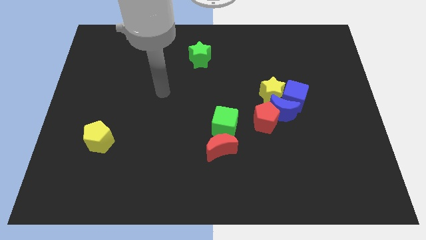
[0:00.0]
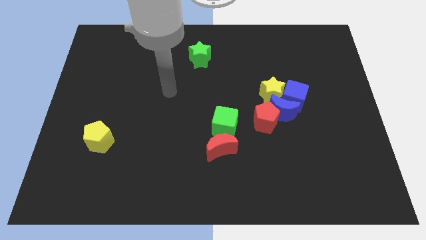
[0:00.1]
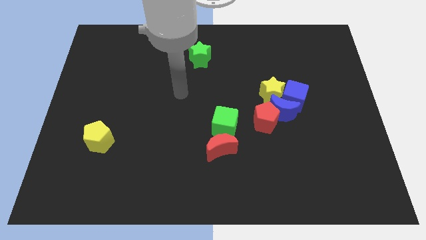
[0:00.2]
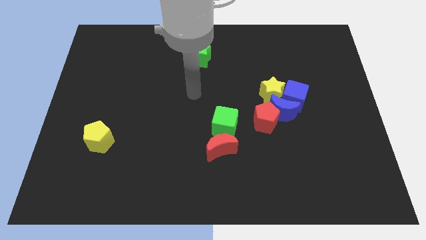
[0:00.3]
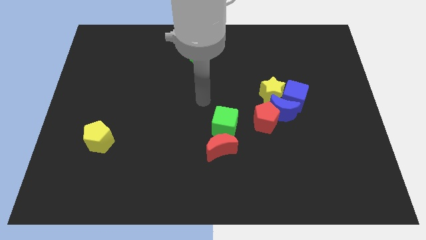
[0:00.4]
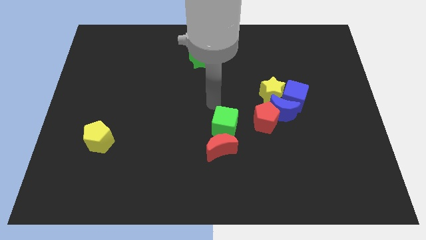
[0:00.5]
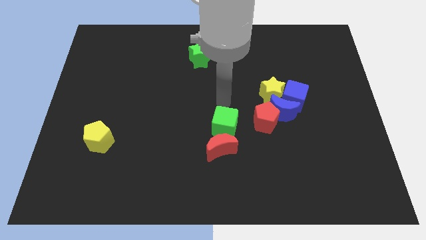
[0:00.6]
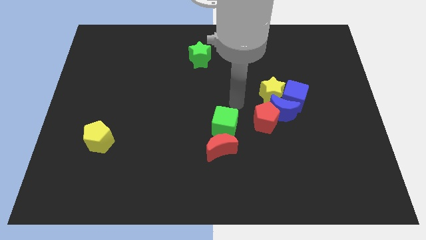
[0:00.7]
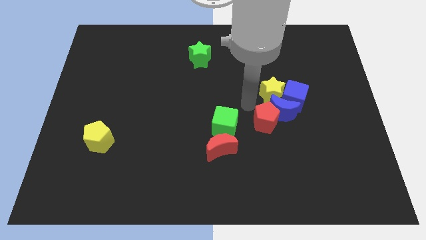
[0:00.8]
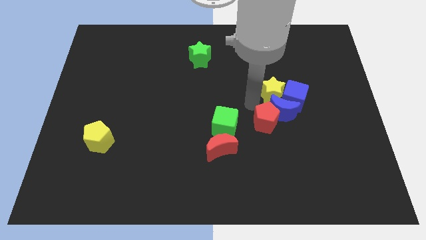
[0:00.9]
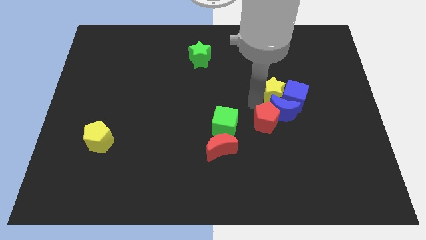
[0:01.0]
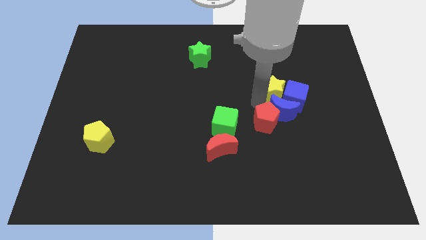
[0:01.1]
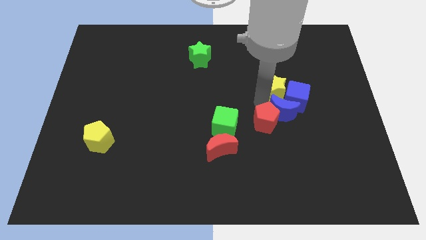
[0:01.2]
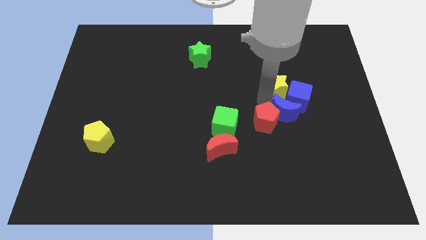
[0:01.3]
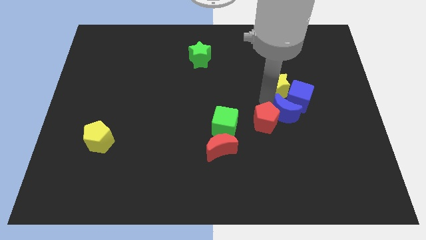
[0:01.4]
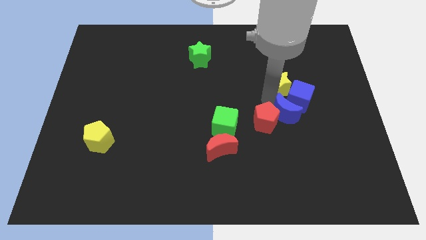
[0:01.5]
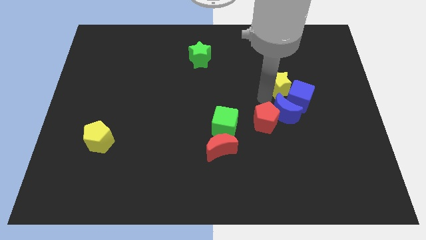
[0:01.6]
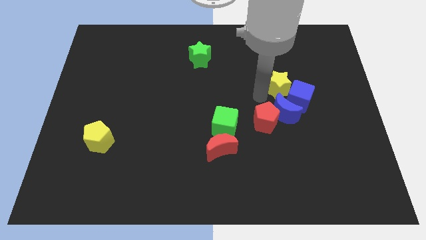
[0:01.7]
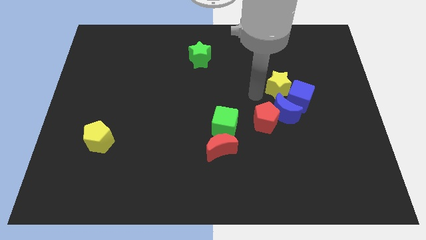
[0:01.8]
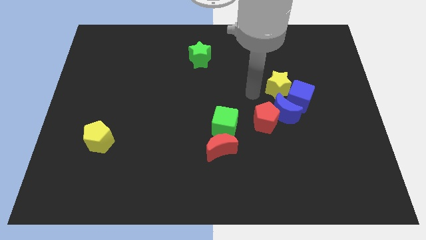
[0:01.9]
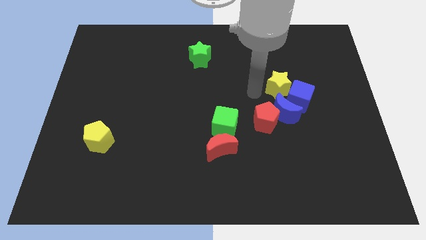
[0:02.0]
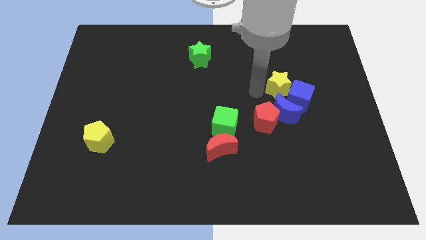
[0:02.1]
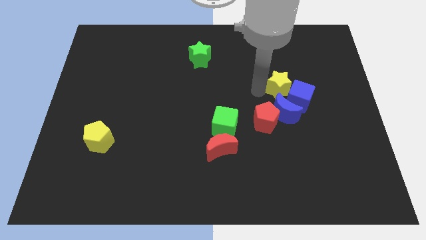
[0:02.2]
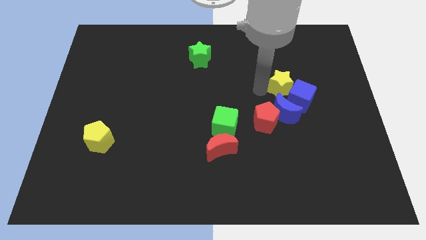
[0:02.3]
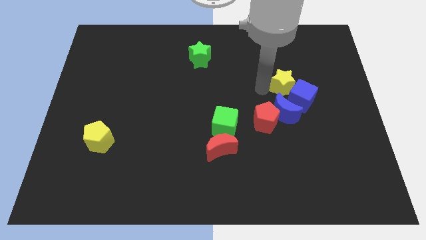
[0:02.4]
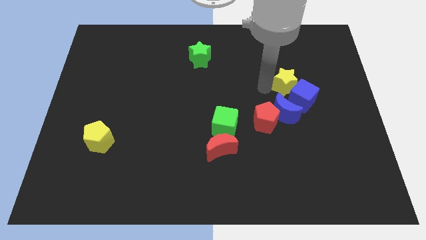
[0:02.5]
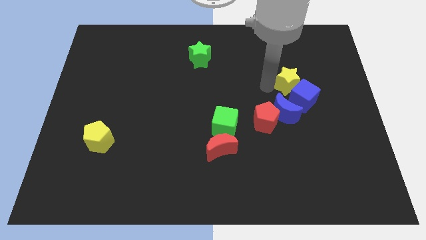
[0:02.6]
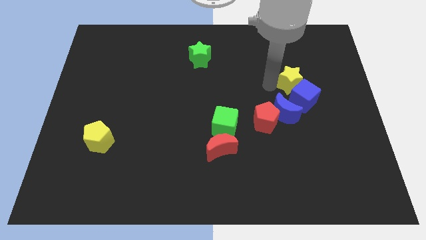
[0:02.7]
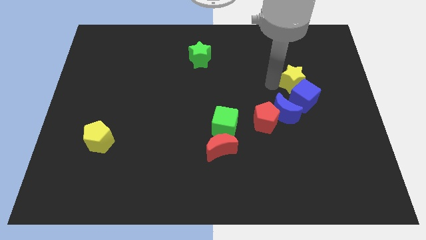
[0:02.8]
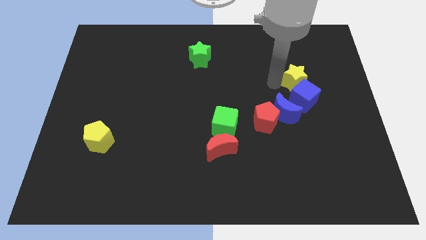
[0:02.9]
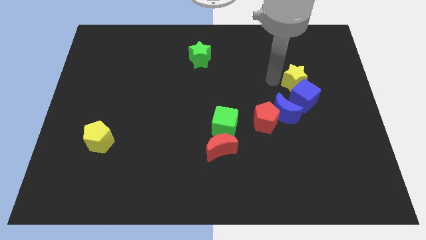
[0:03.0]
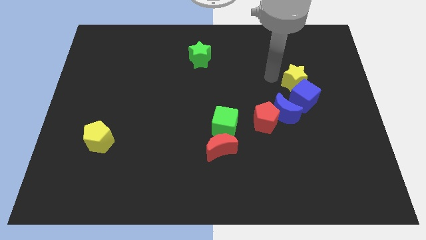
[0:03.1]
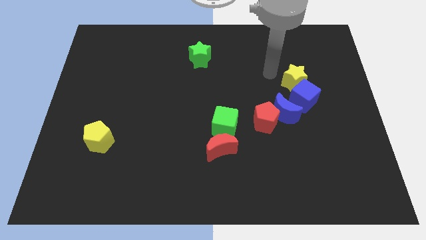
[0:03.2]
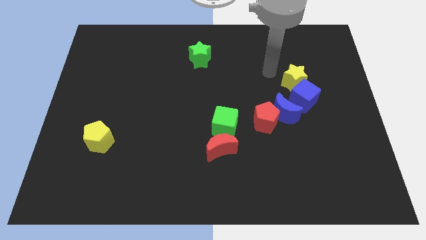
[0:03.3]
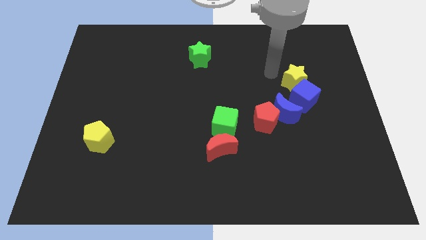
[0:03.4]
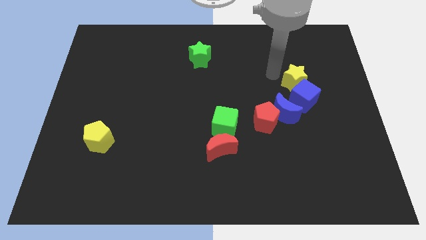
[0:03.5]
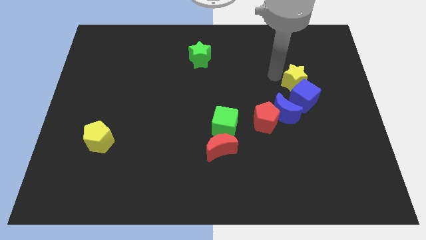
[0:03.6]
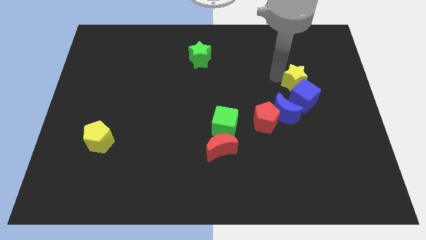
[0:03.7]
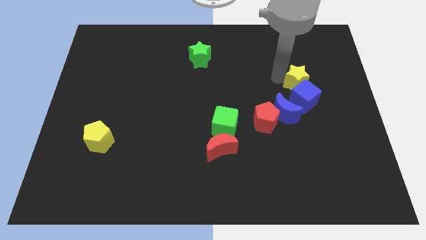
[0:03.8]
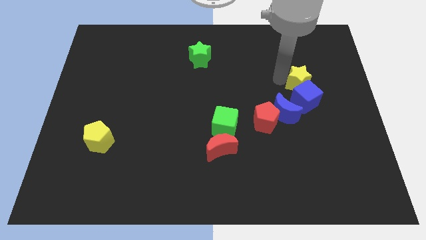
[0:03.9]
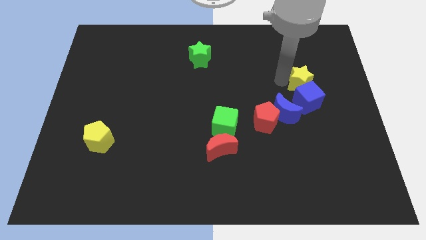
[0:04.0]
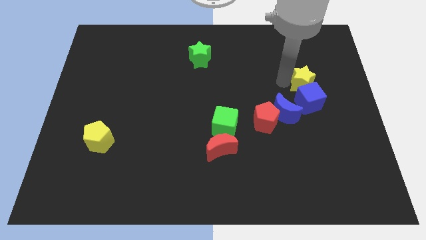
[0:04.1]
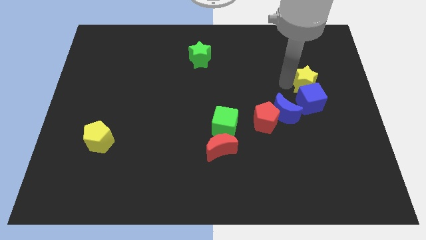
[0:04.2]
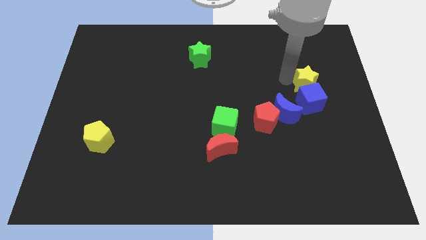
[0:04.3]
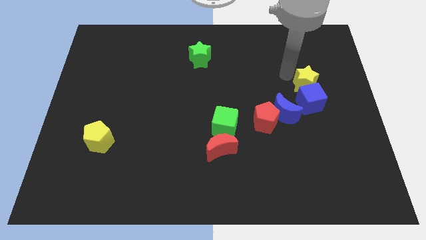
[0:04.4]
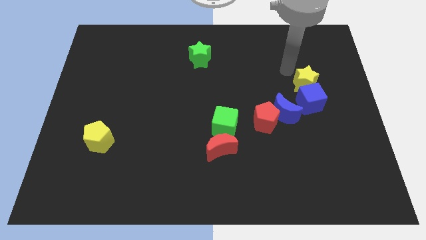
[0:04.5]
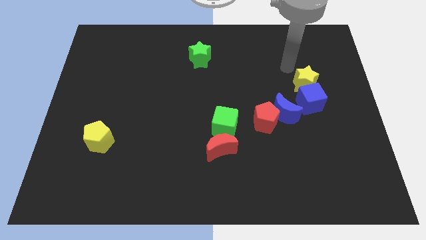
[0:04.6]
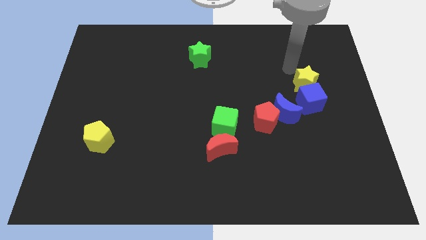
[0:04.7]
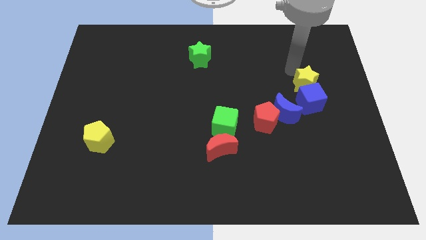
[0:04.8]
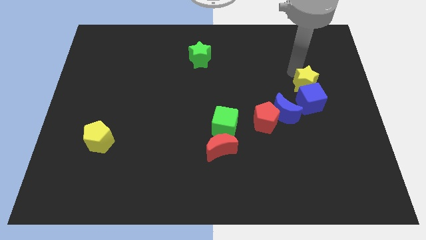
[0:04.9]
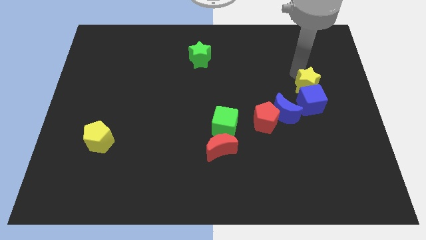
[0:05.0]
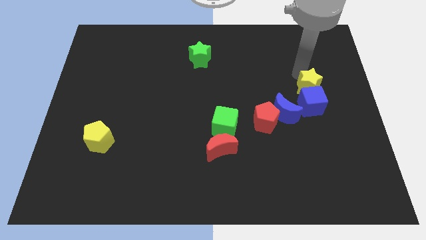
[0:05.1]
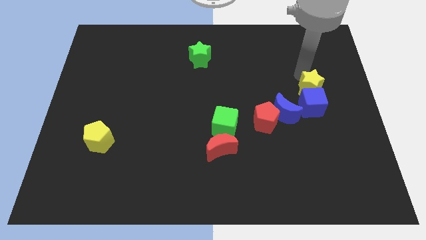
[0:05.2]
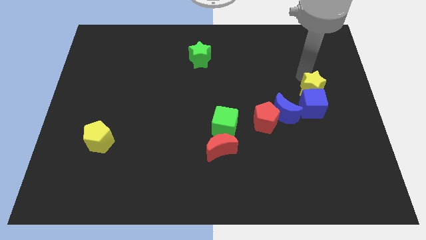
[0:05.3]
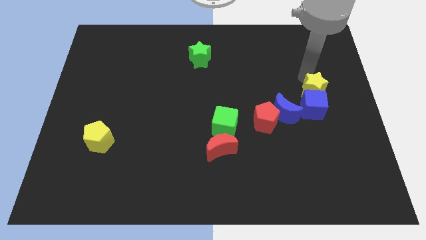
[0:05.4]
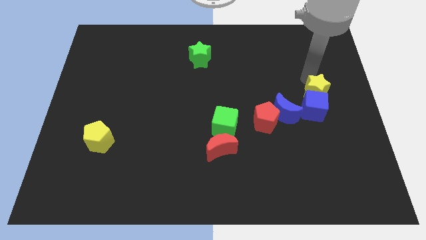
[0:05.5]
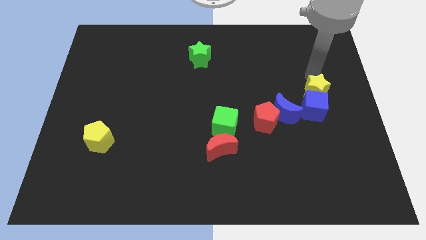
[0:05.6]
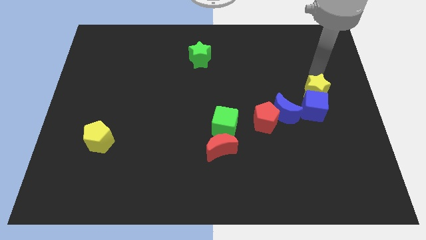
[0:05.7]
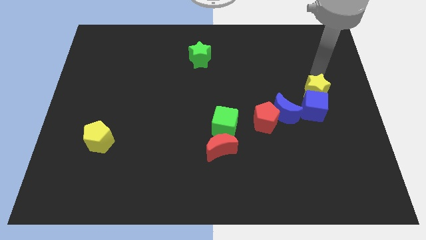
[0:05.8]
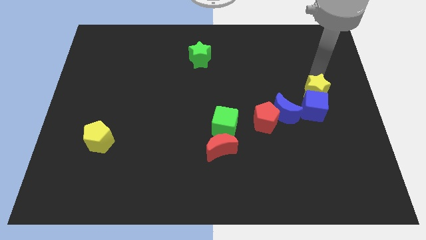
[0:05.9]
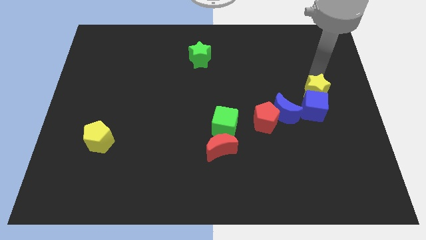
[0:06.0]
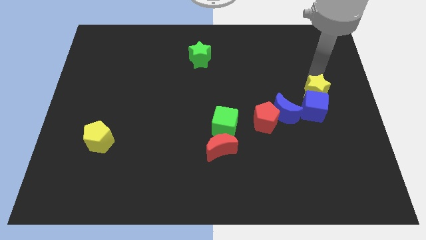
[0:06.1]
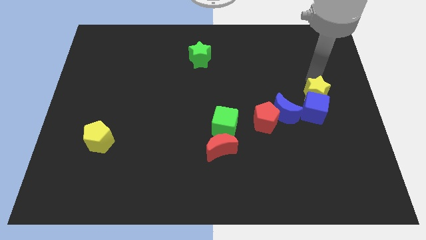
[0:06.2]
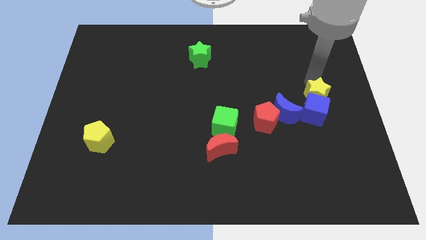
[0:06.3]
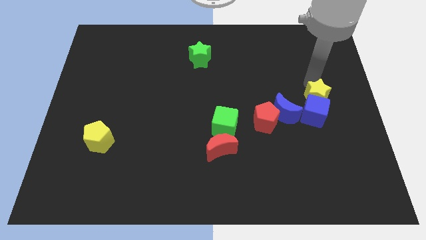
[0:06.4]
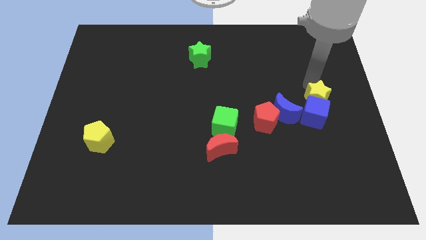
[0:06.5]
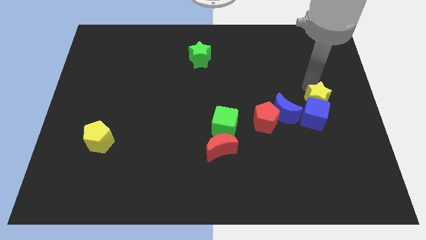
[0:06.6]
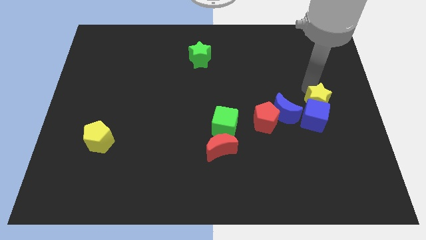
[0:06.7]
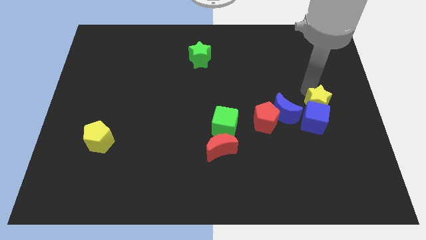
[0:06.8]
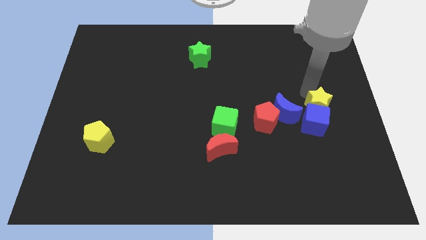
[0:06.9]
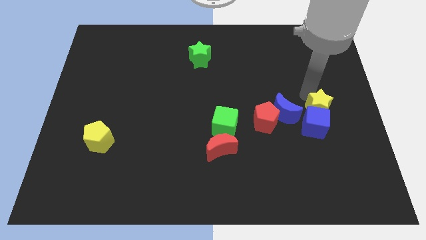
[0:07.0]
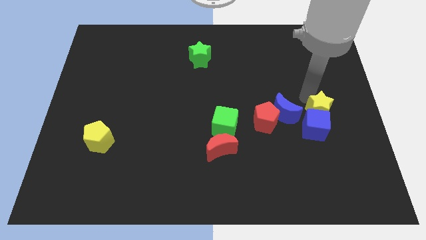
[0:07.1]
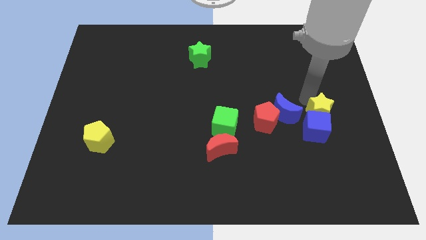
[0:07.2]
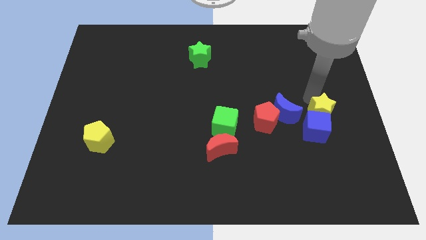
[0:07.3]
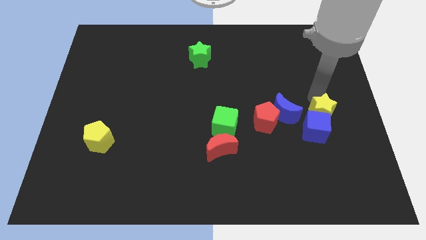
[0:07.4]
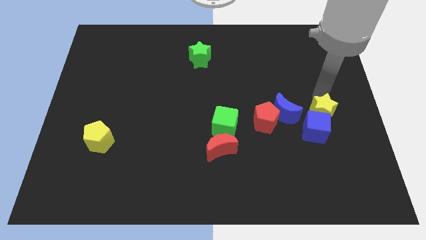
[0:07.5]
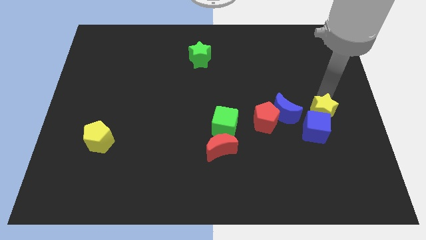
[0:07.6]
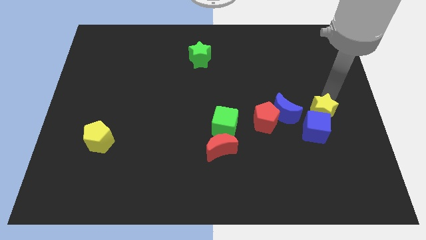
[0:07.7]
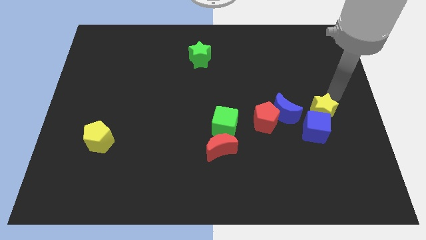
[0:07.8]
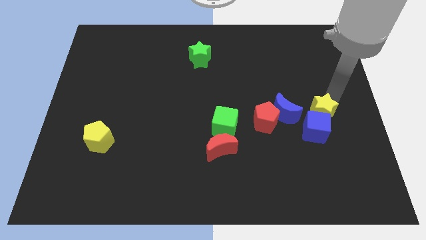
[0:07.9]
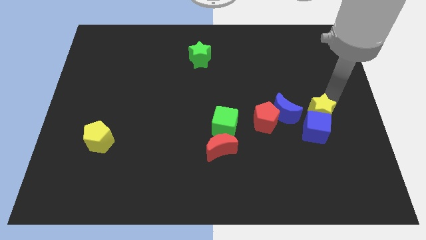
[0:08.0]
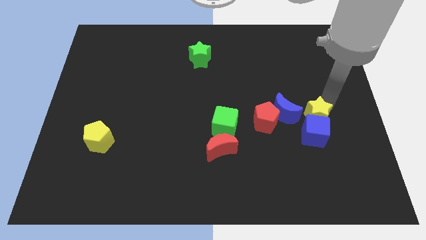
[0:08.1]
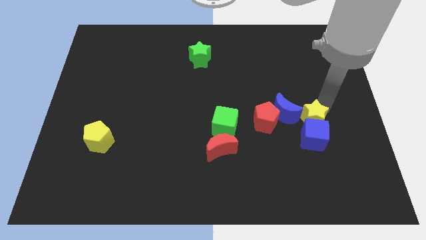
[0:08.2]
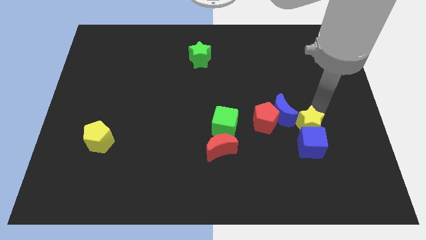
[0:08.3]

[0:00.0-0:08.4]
push the yellow star downwards a little bit
